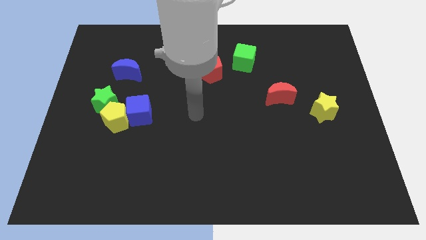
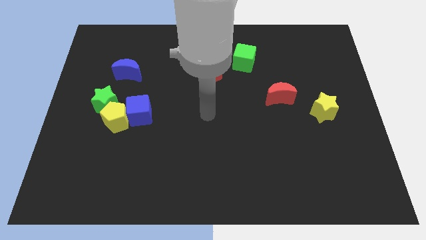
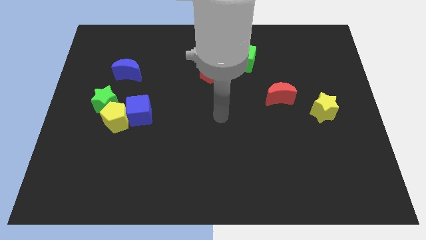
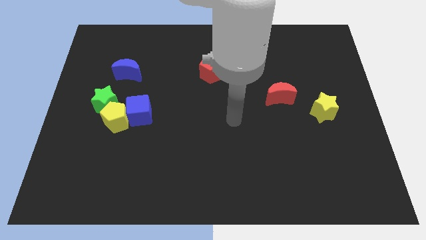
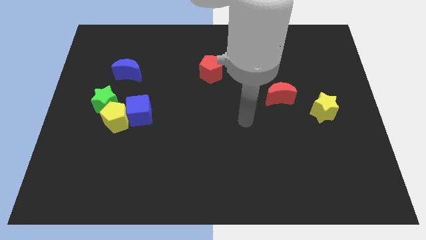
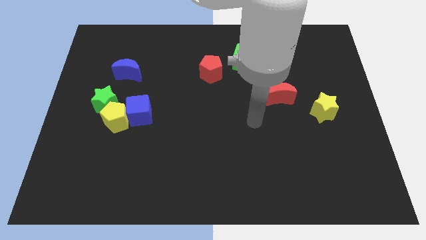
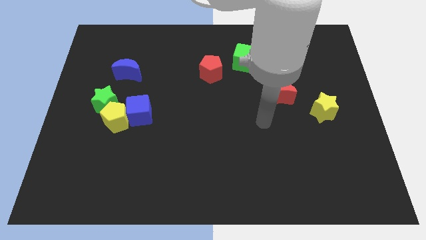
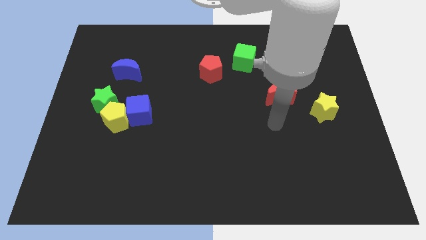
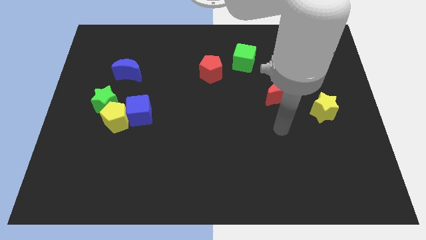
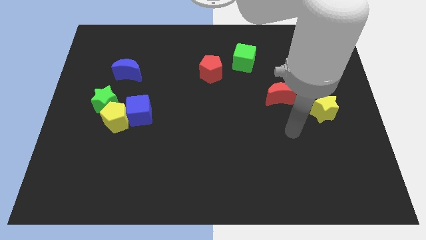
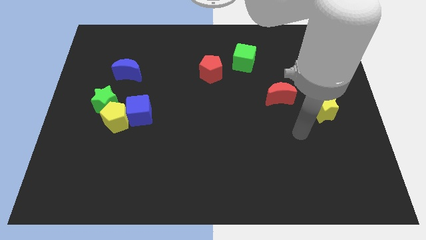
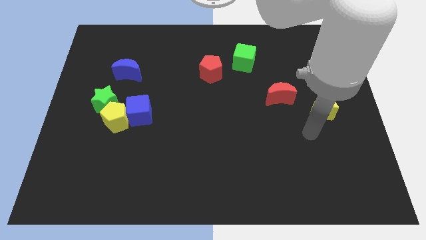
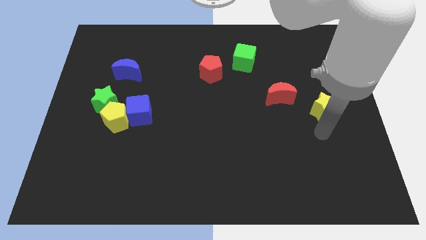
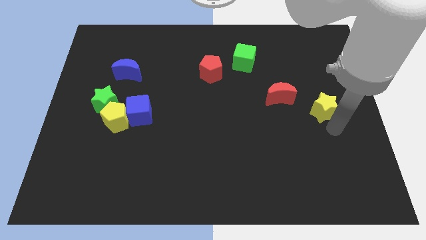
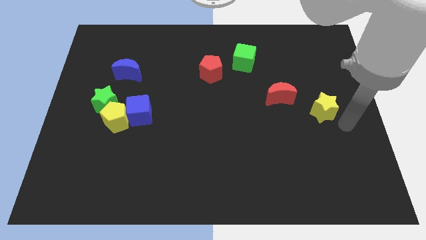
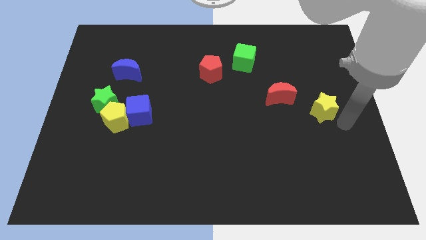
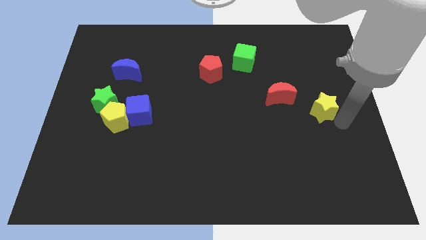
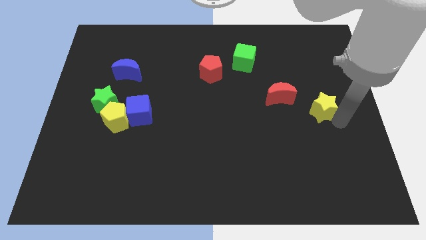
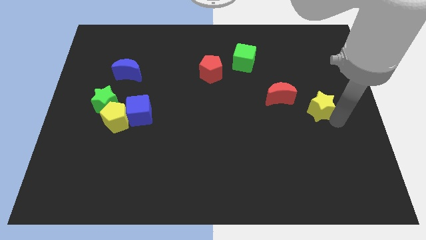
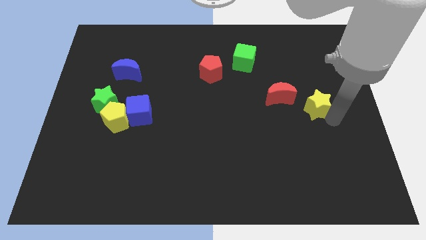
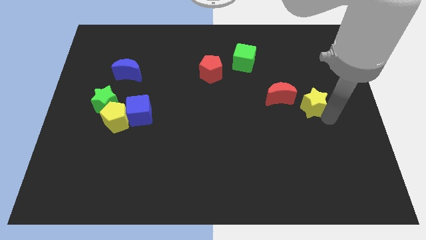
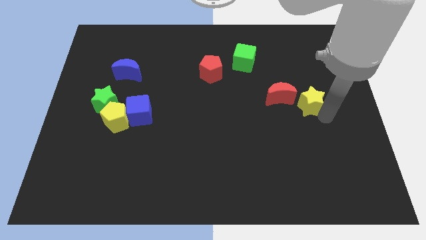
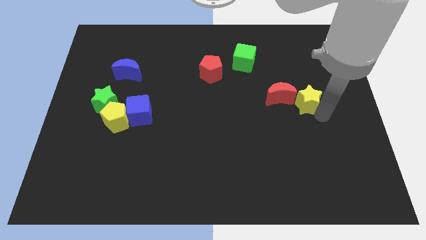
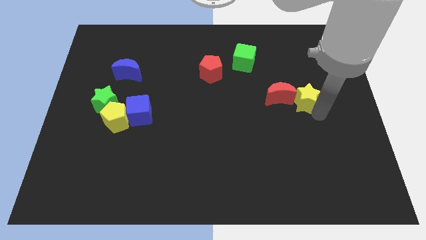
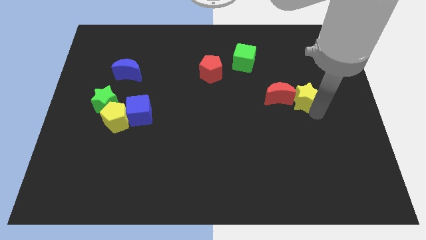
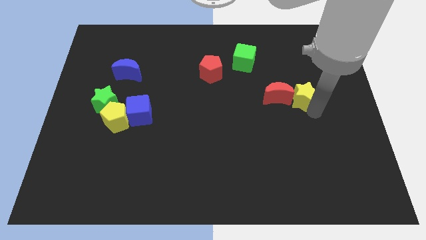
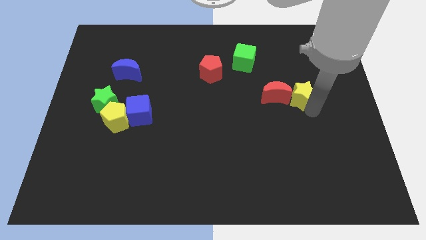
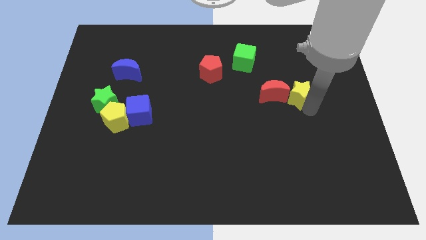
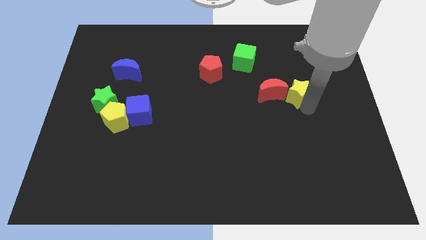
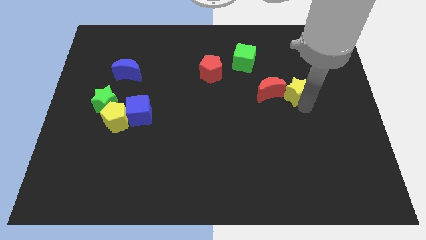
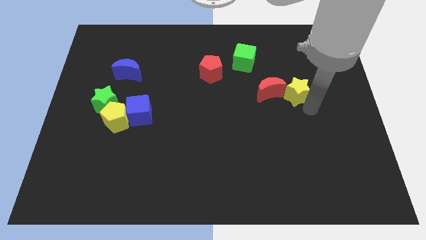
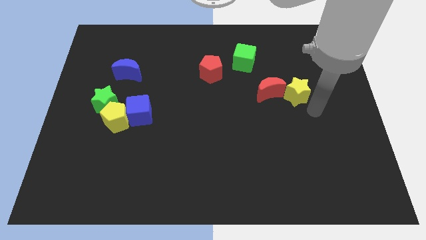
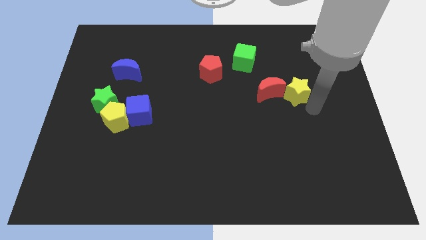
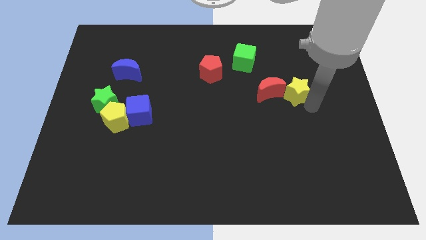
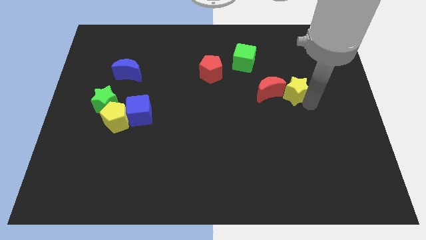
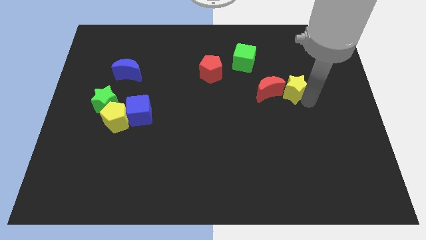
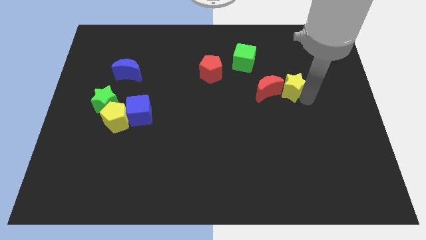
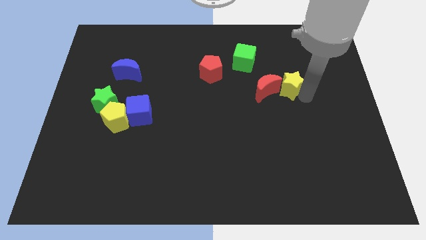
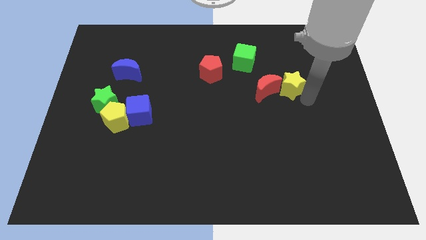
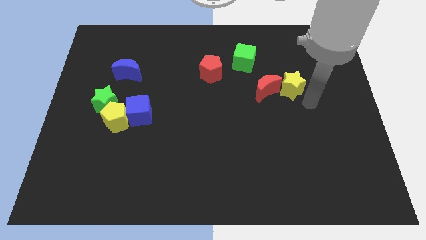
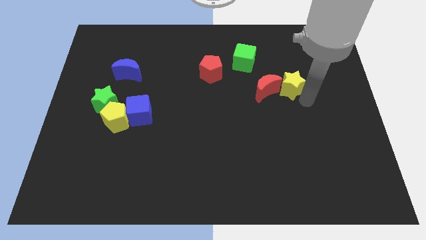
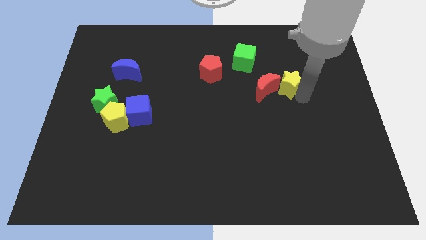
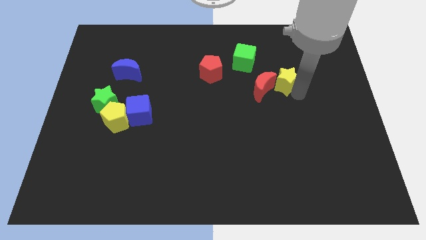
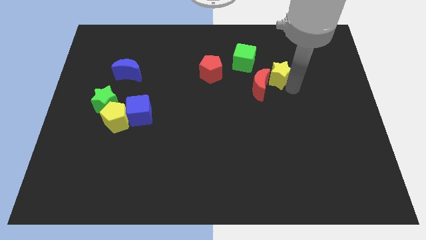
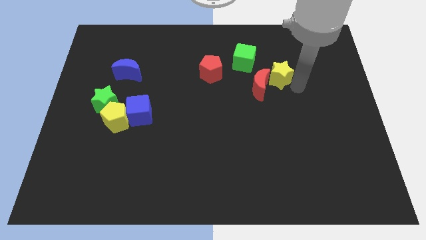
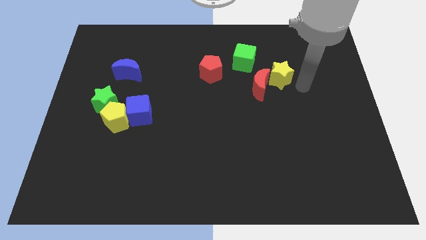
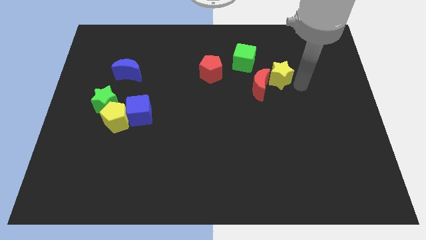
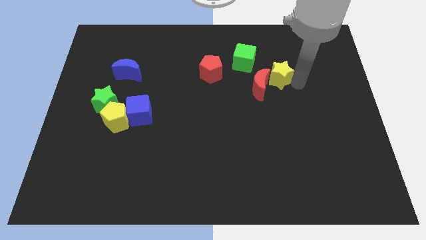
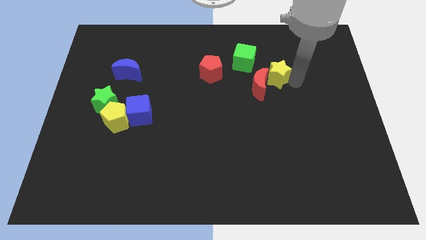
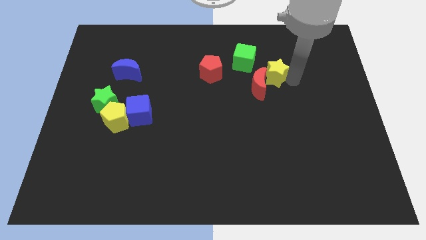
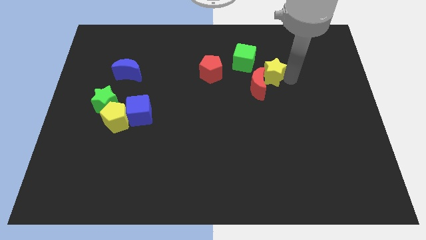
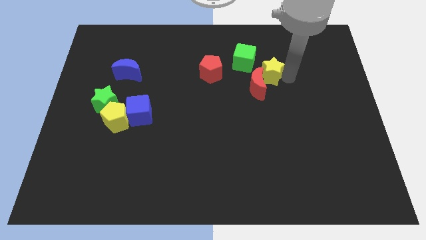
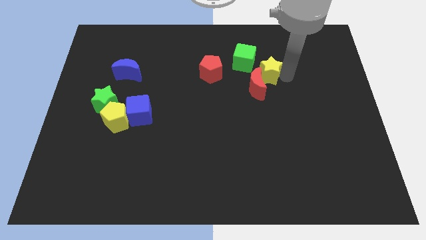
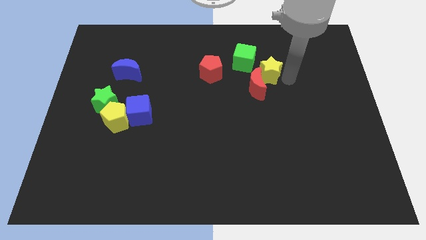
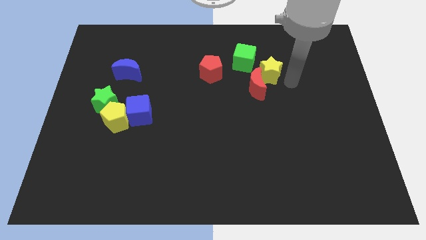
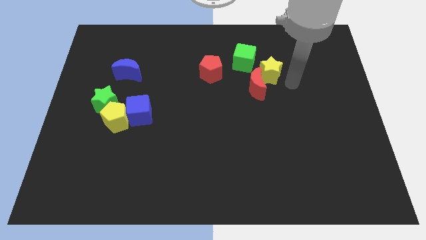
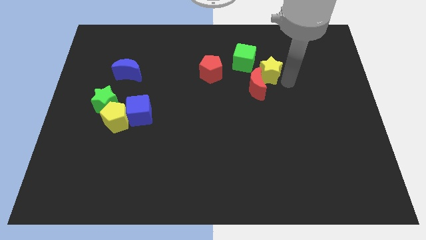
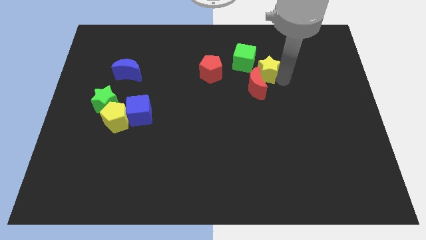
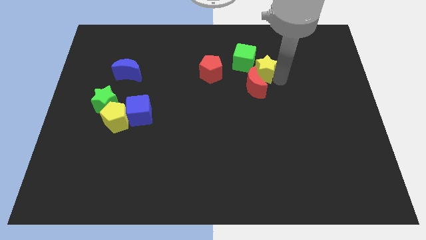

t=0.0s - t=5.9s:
slide the yellow star next to the green cube

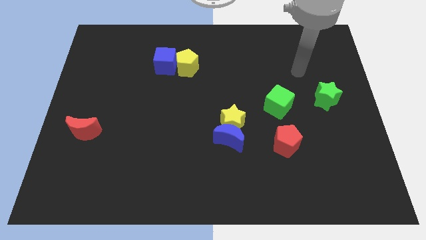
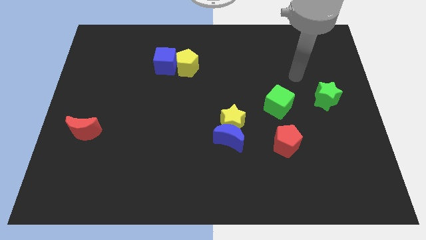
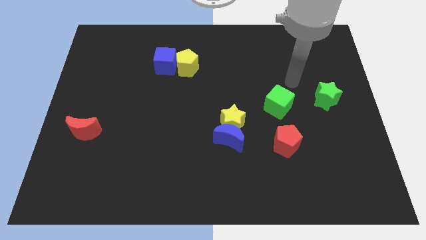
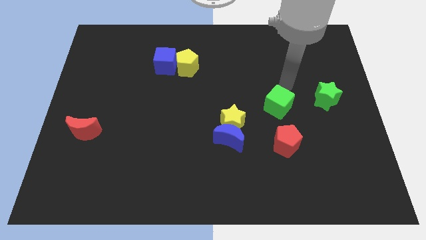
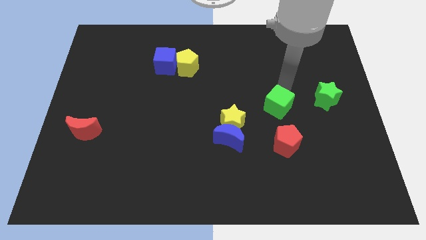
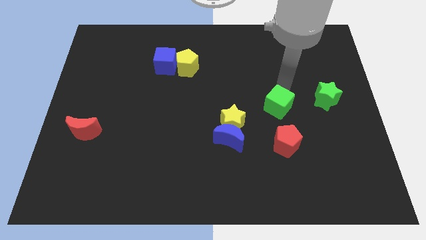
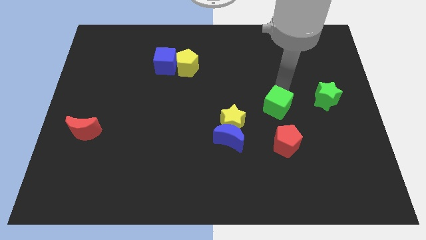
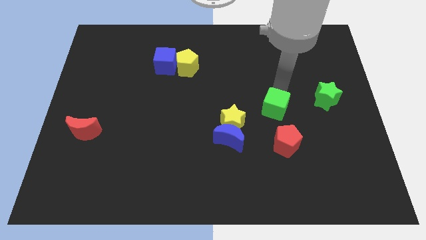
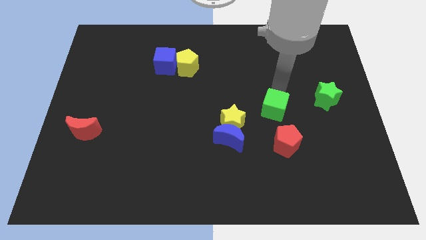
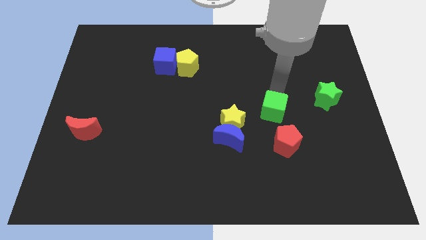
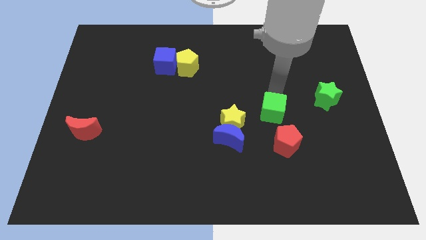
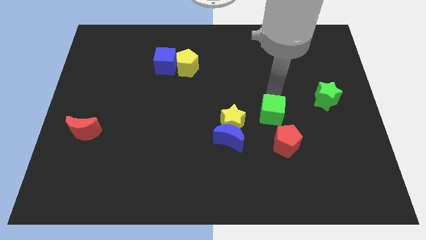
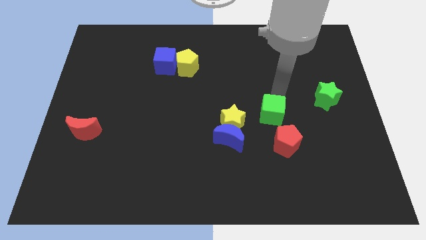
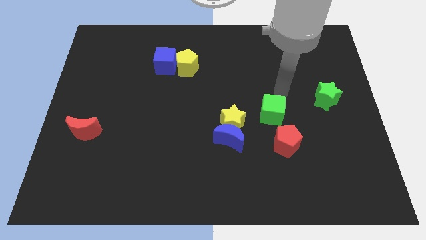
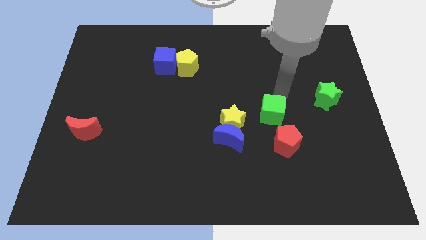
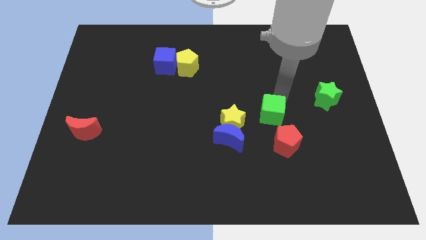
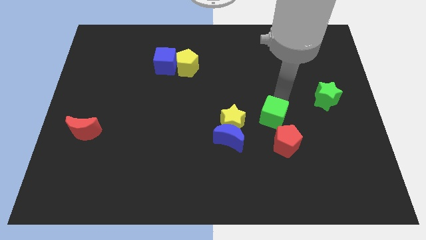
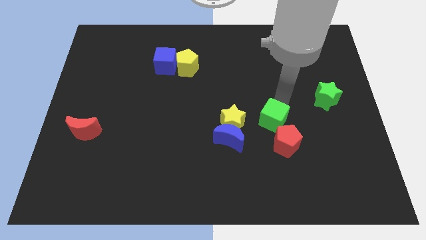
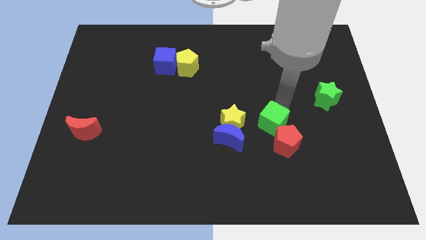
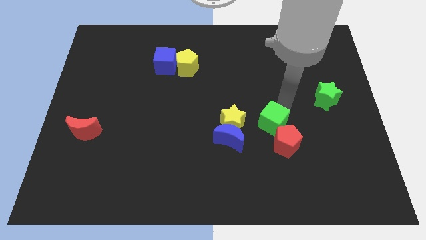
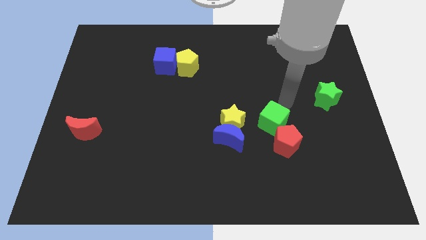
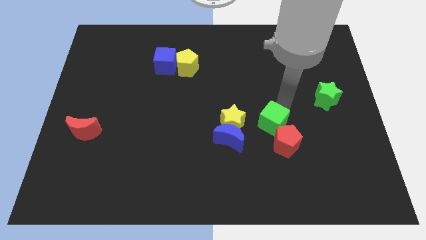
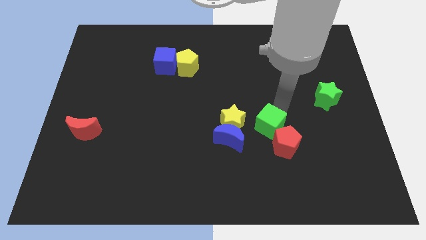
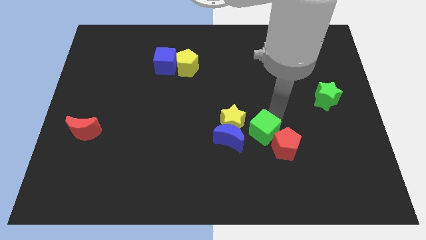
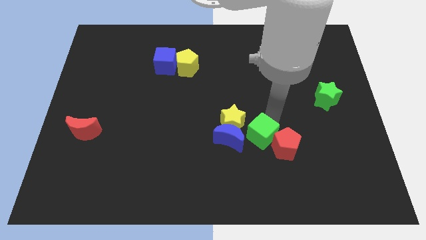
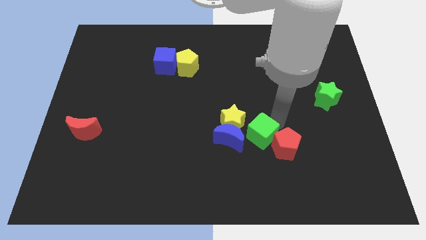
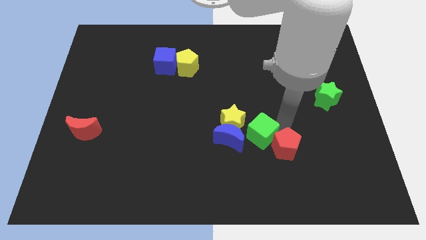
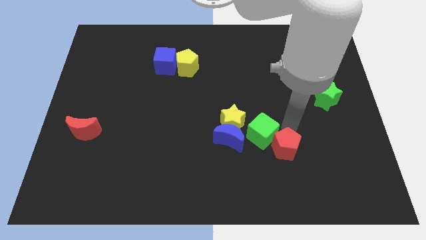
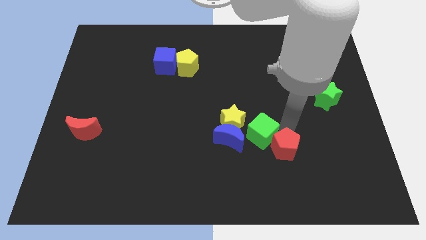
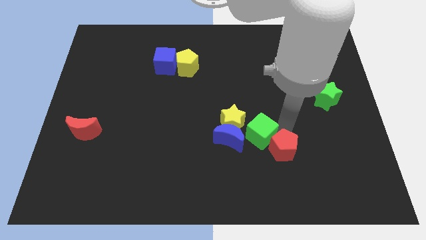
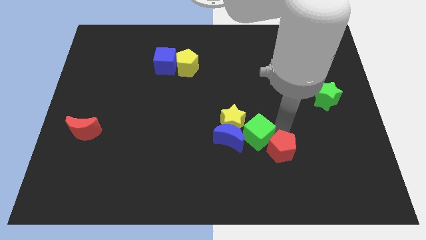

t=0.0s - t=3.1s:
put the green cube towards the blue moon
